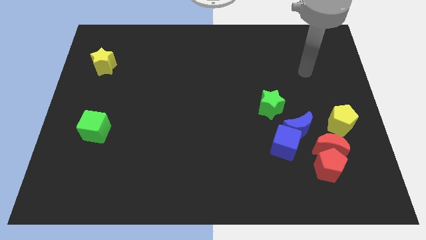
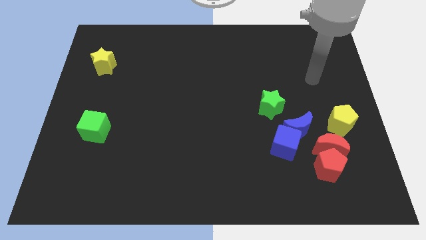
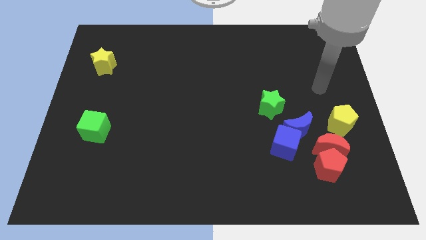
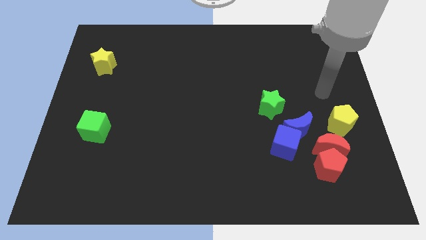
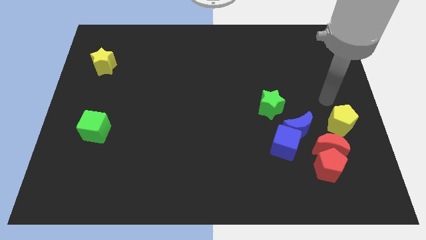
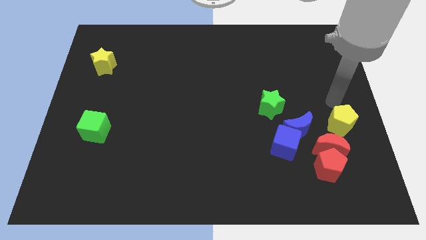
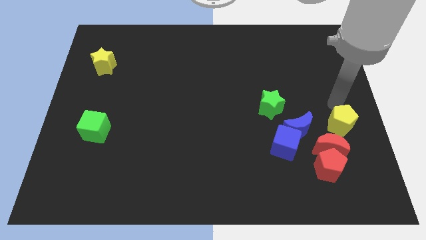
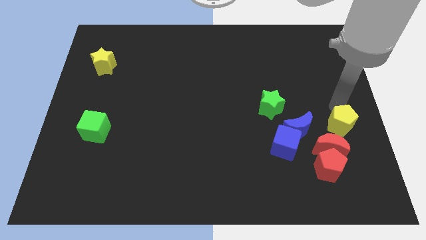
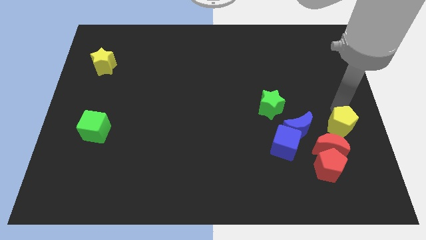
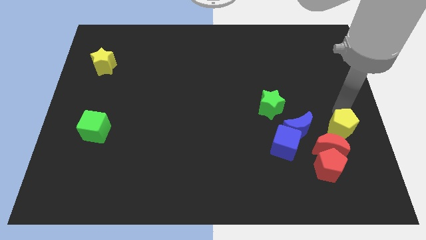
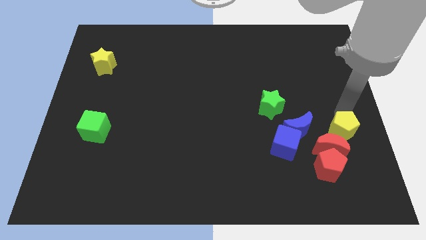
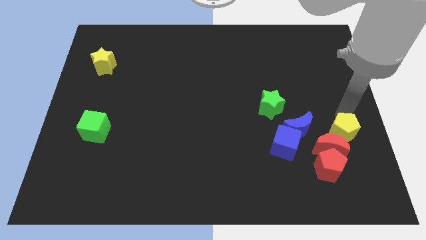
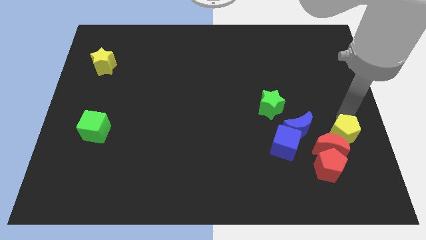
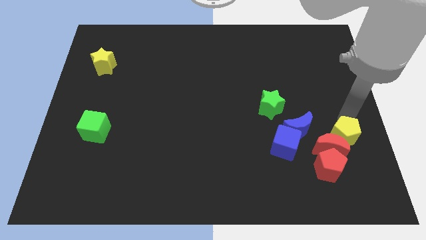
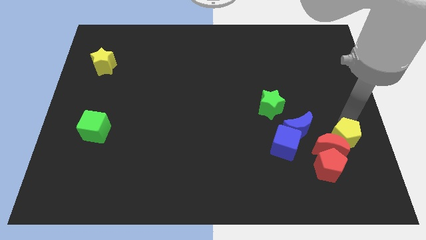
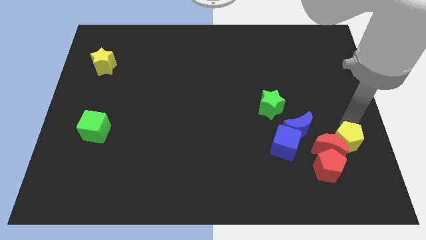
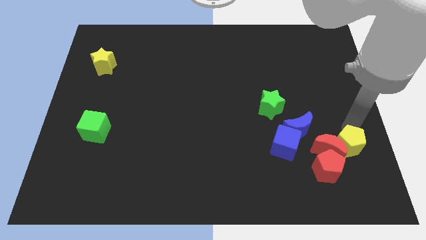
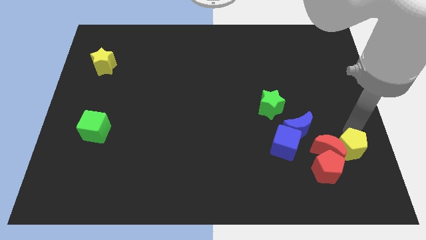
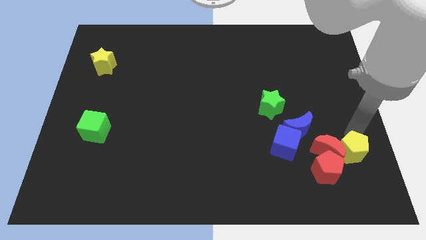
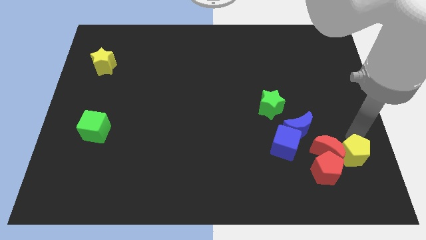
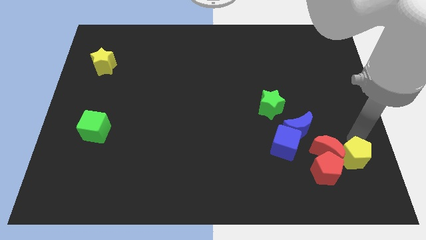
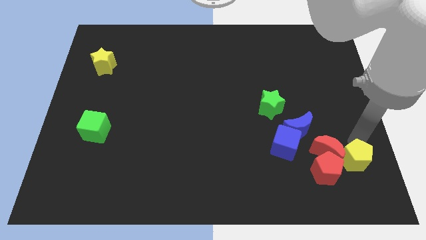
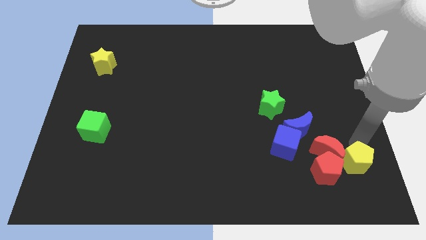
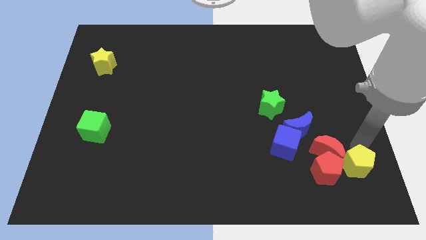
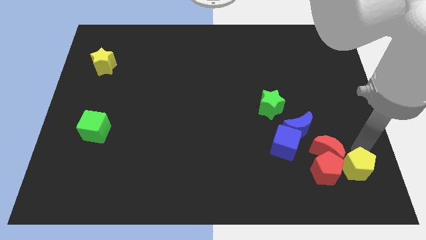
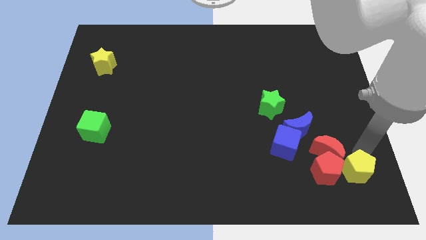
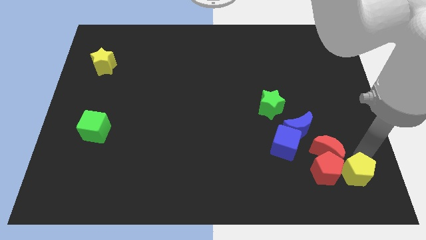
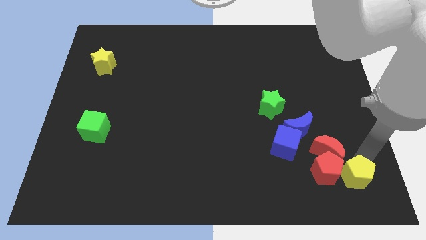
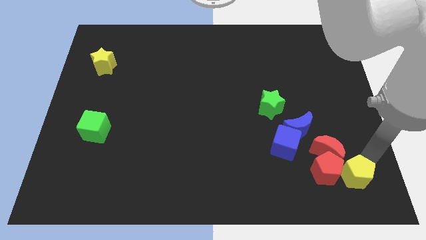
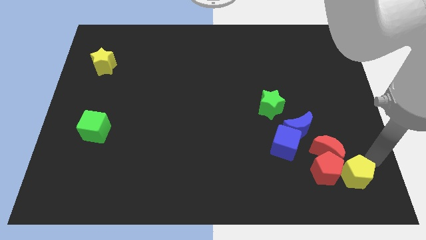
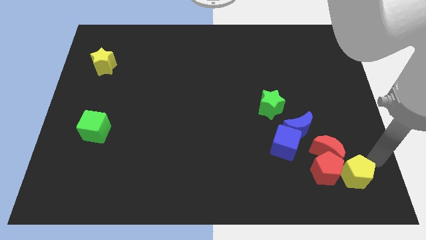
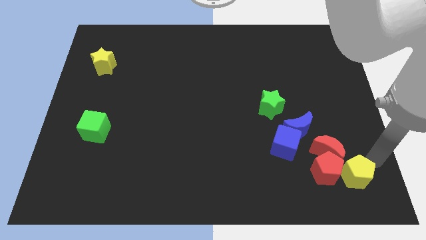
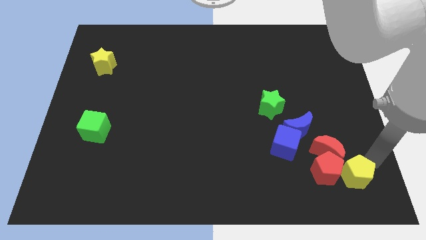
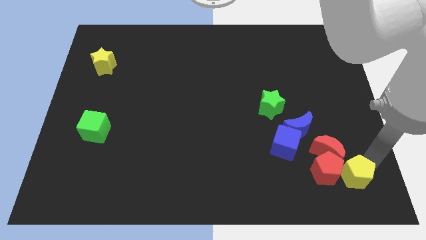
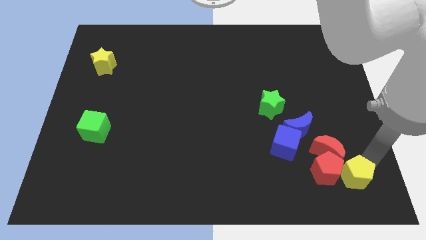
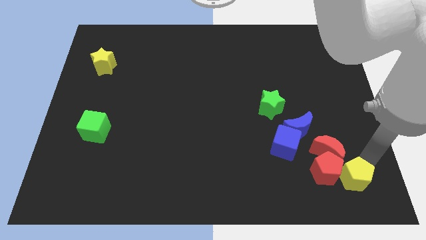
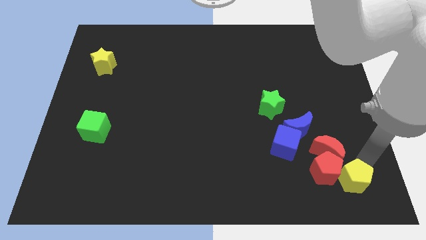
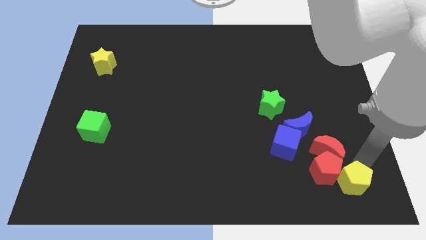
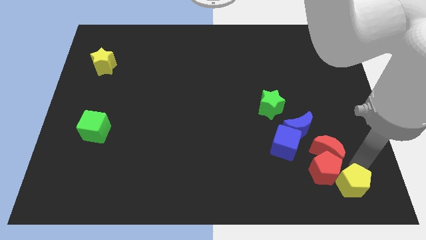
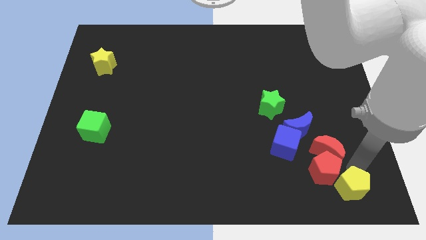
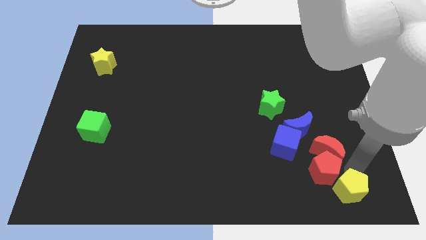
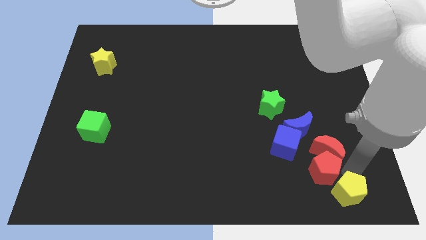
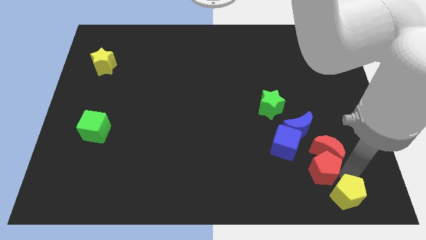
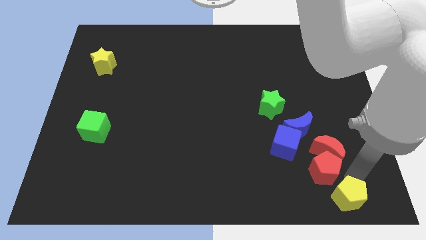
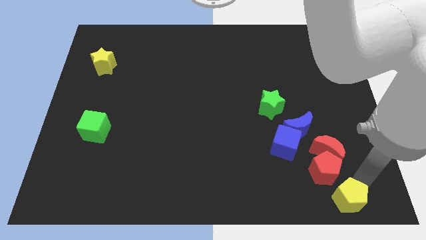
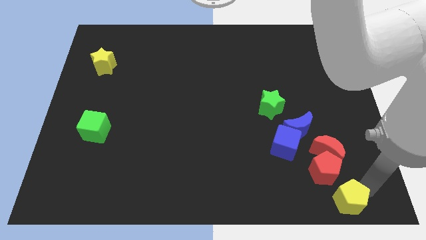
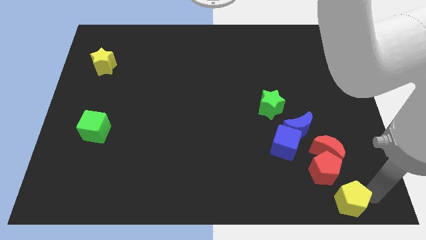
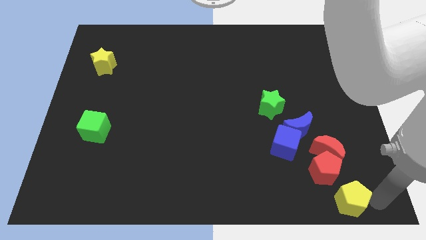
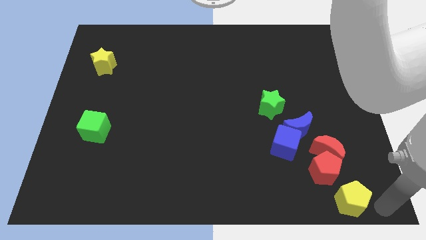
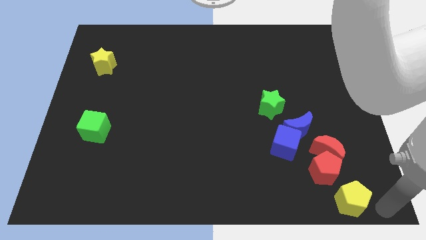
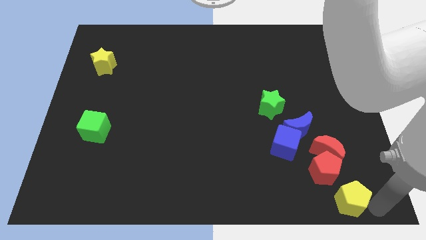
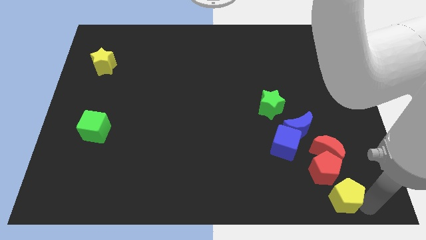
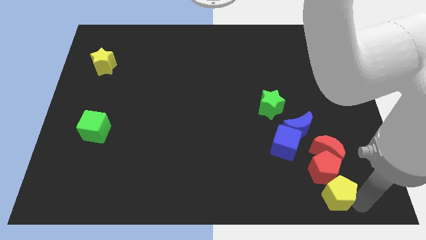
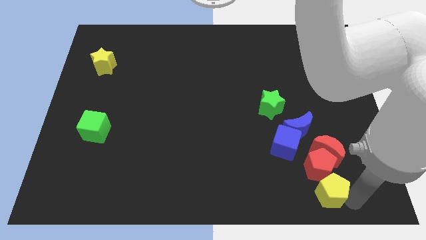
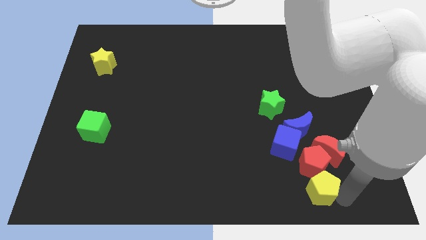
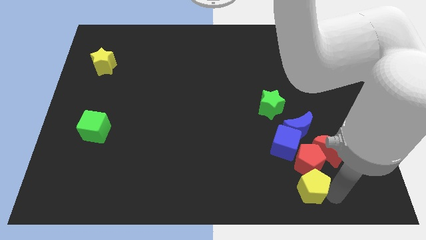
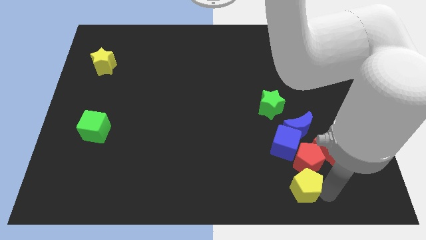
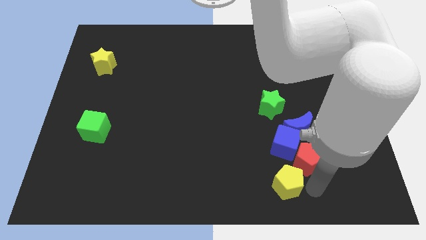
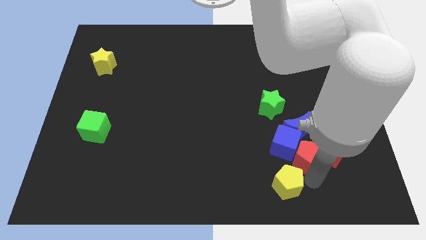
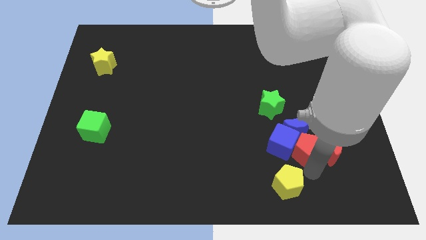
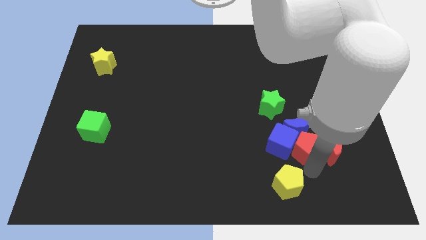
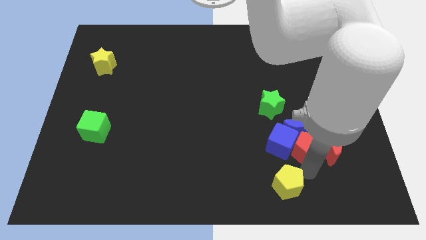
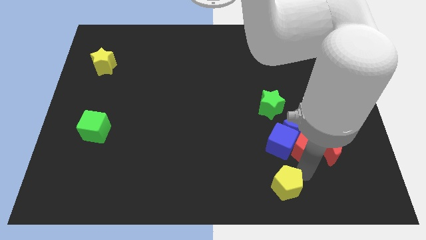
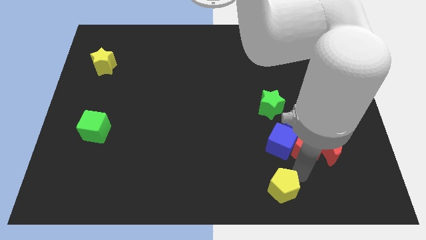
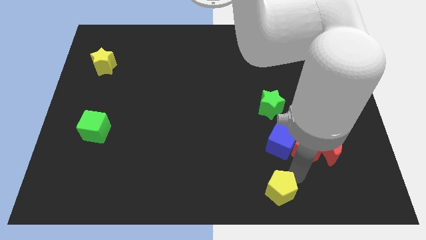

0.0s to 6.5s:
slide the yellow pentagon to the bottom

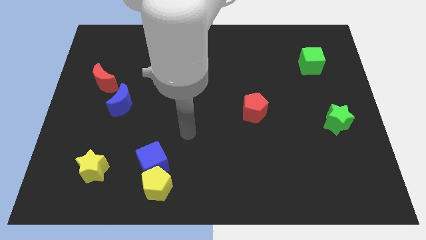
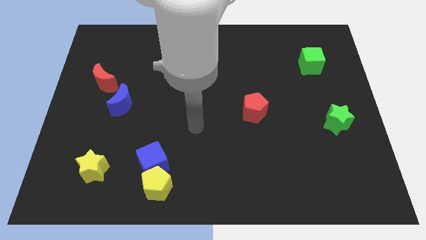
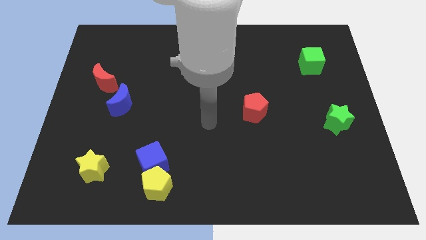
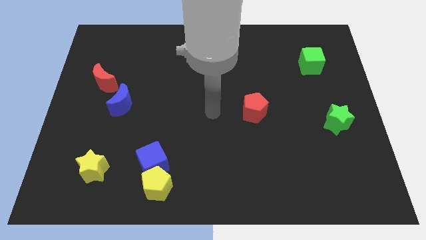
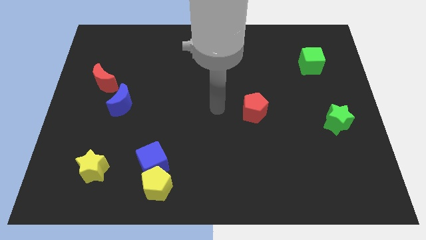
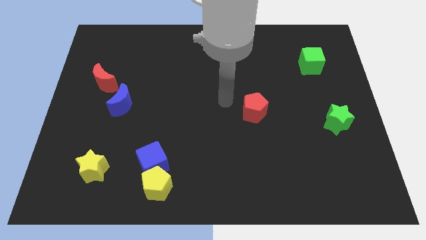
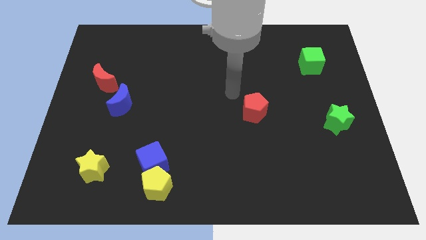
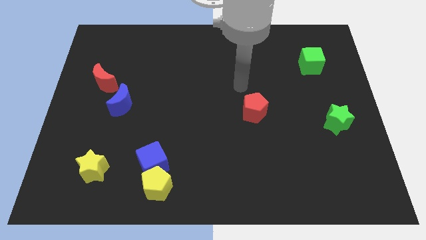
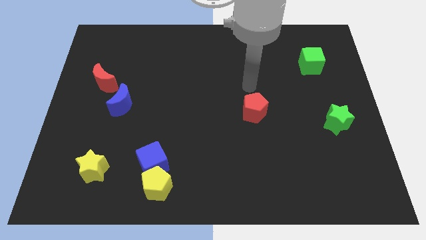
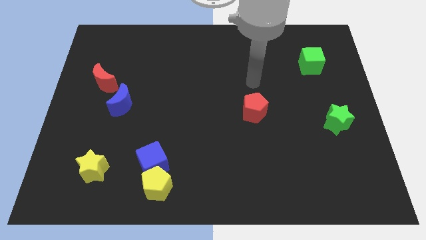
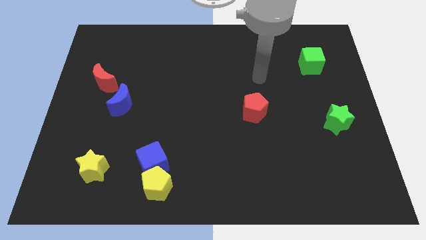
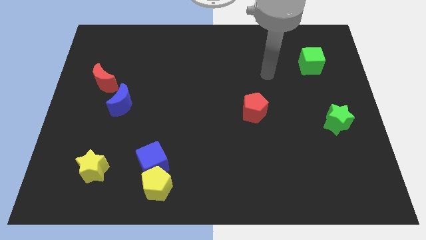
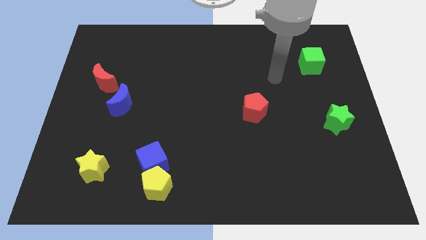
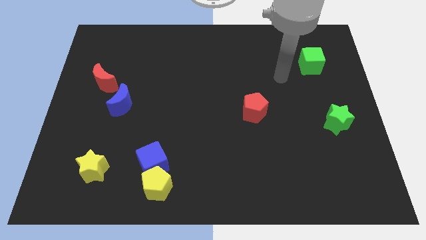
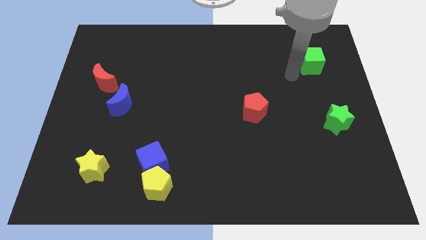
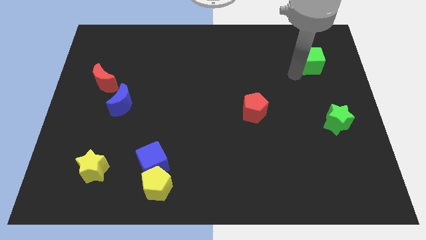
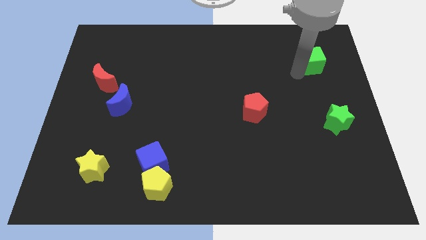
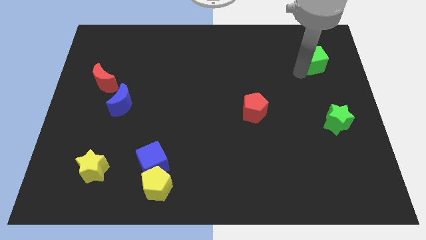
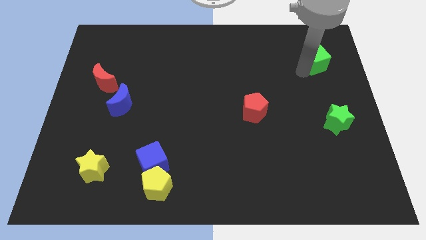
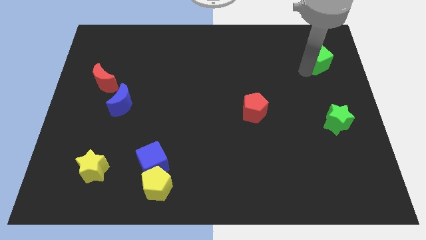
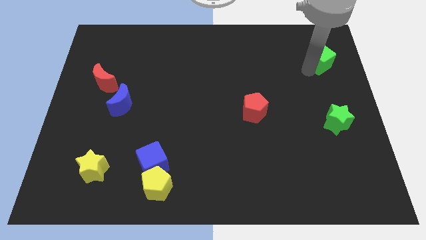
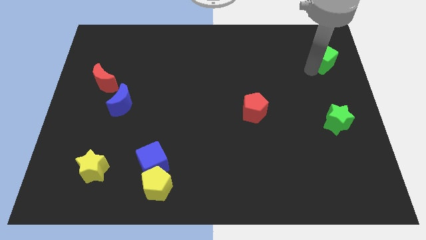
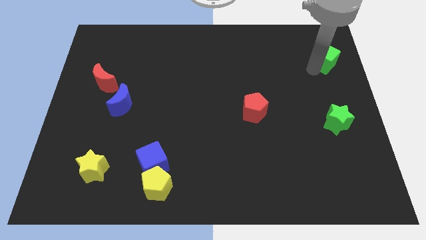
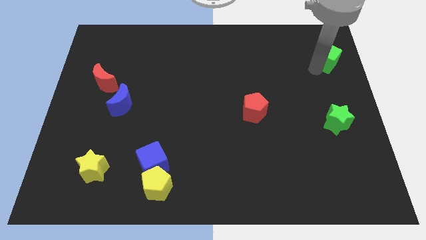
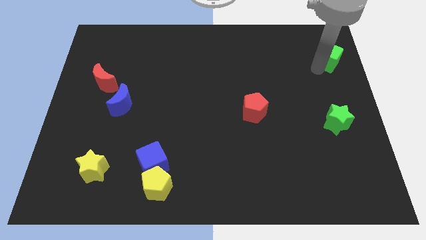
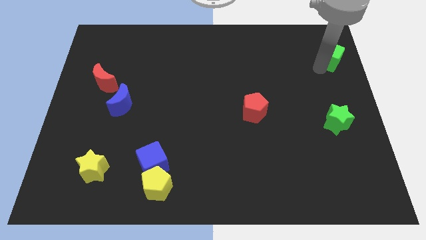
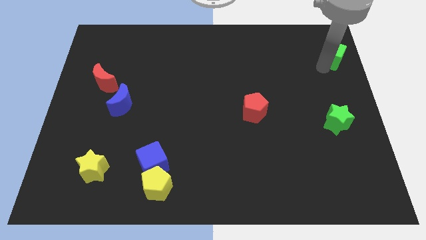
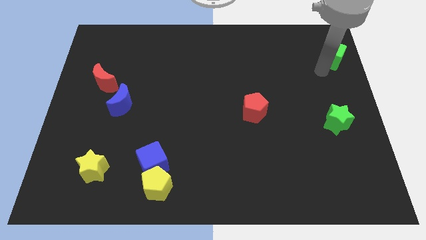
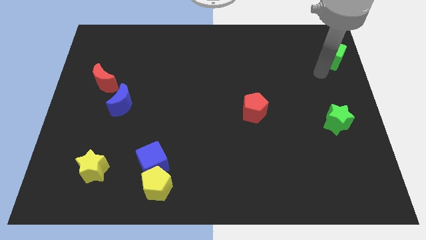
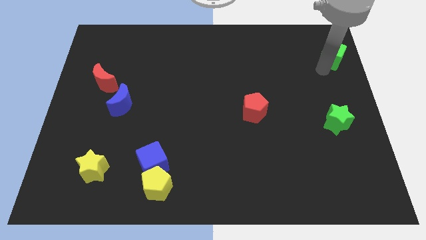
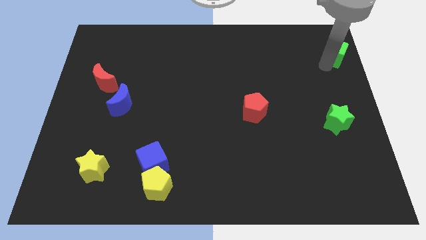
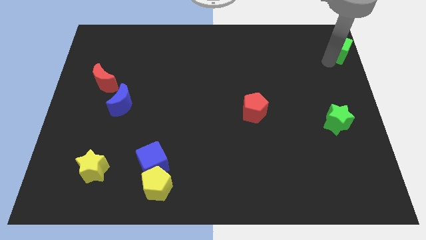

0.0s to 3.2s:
push the green cube to the top right corner
